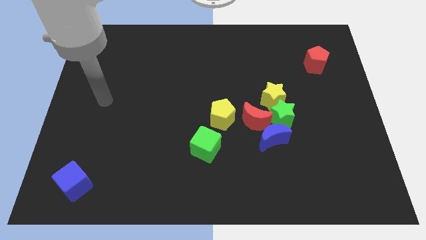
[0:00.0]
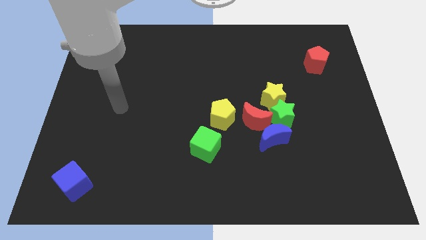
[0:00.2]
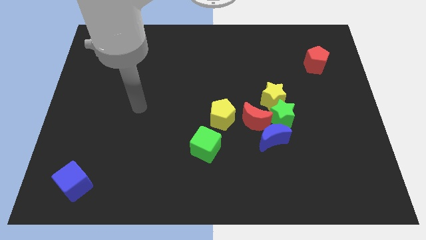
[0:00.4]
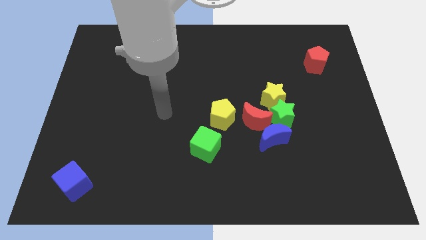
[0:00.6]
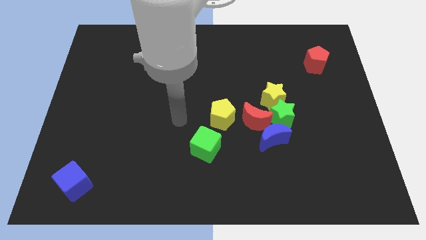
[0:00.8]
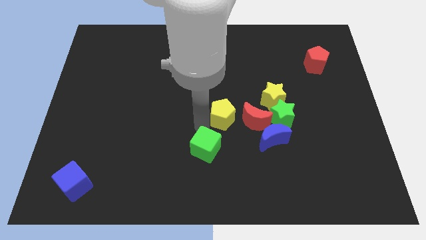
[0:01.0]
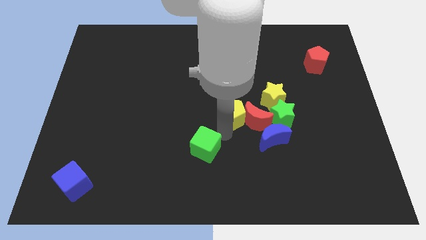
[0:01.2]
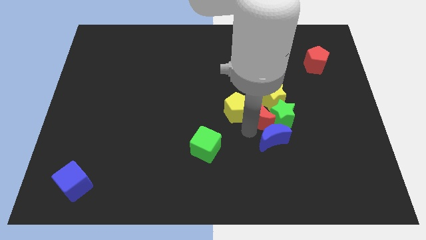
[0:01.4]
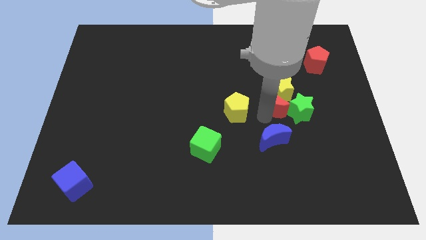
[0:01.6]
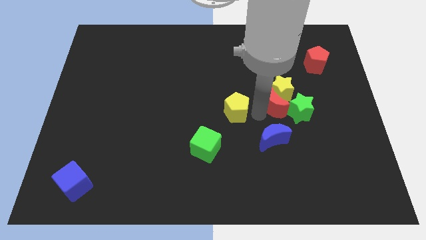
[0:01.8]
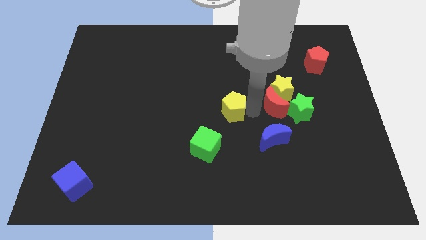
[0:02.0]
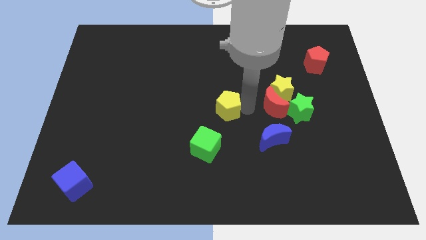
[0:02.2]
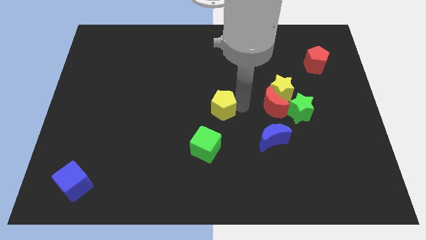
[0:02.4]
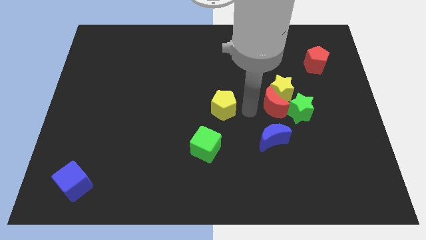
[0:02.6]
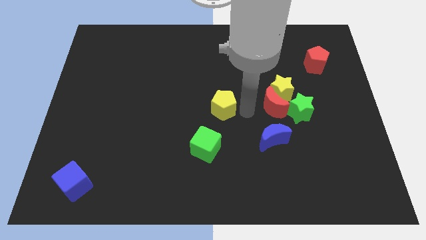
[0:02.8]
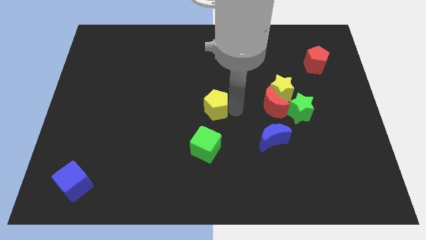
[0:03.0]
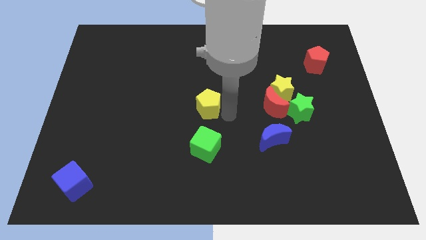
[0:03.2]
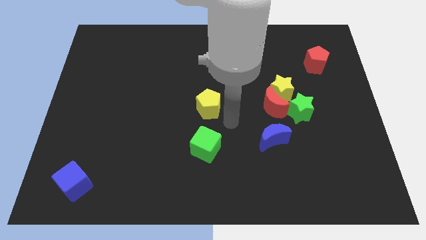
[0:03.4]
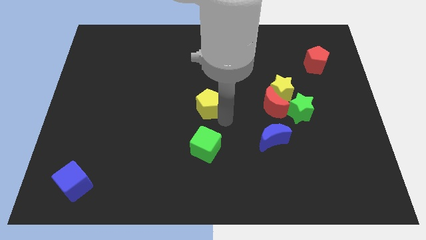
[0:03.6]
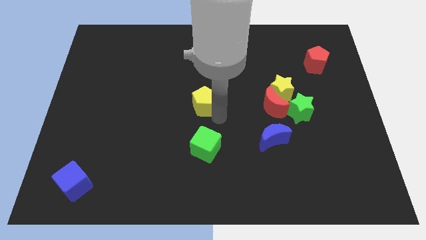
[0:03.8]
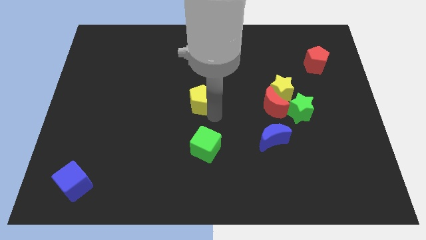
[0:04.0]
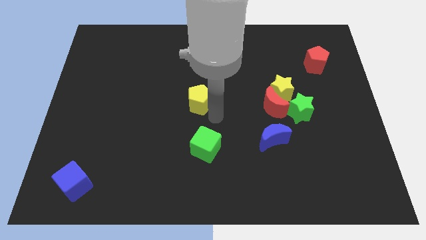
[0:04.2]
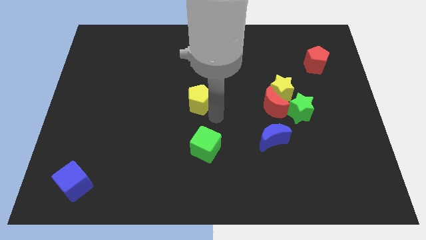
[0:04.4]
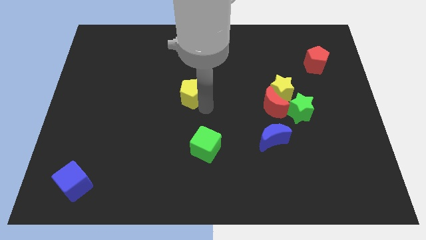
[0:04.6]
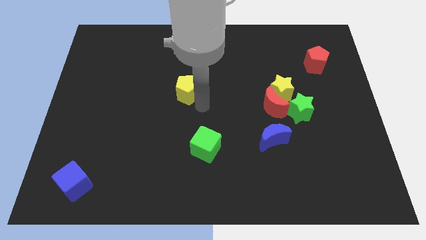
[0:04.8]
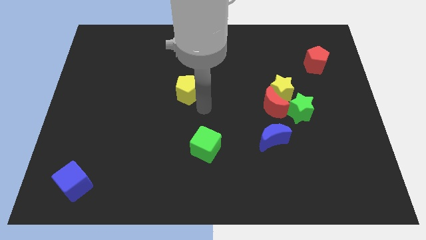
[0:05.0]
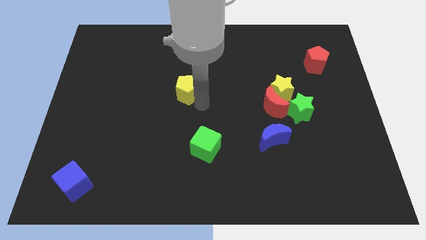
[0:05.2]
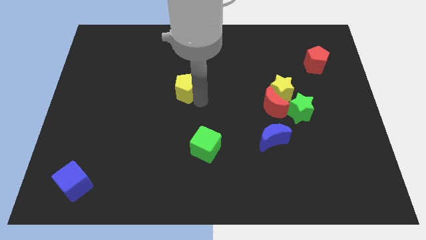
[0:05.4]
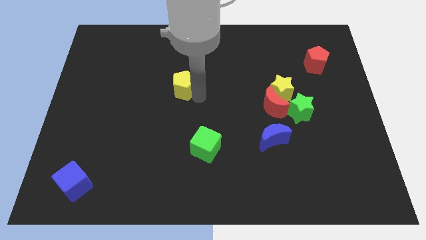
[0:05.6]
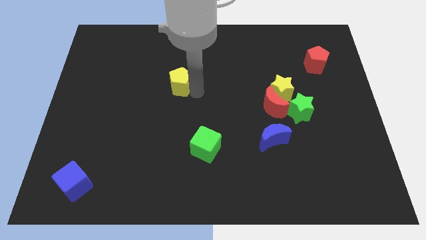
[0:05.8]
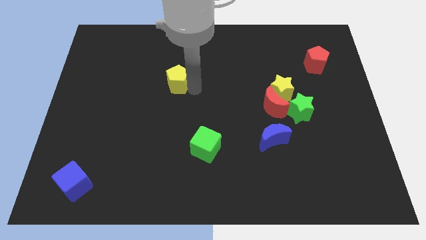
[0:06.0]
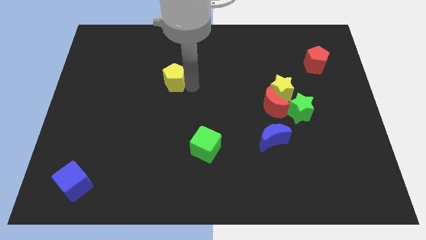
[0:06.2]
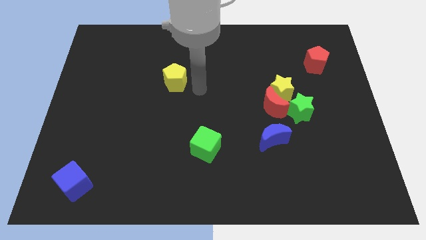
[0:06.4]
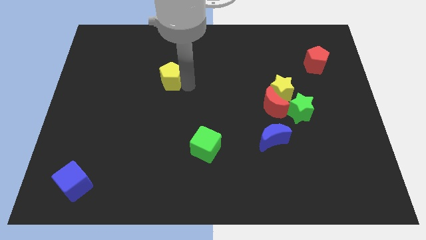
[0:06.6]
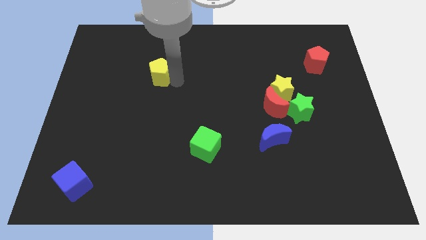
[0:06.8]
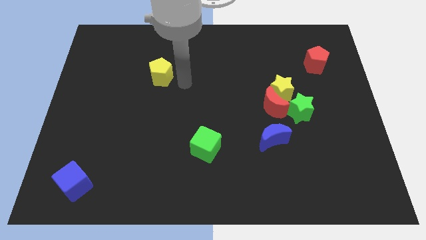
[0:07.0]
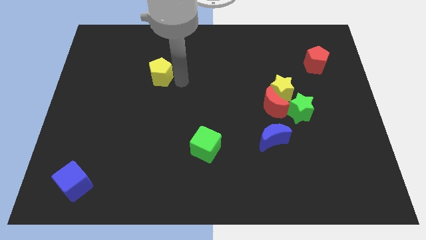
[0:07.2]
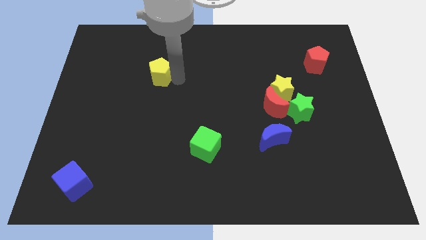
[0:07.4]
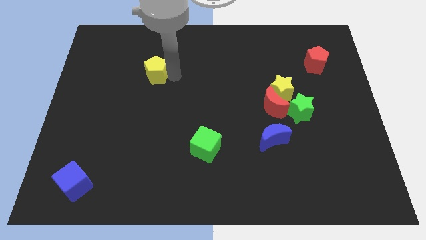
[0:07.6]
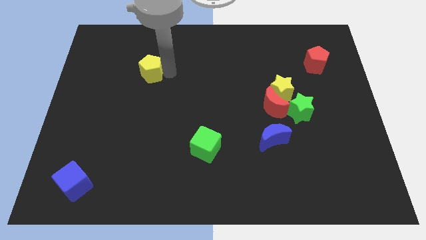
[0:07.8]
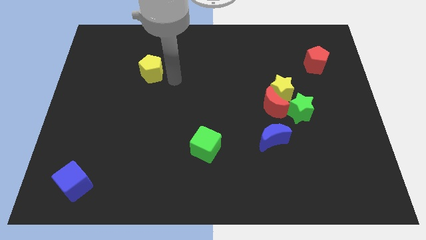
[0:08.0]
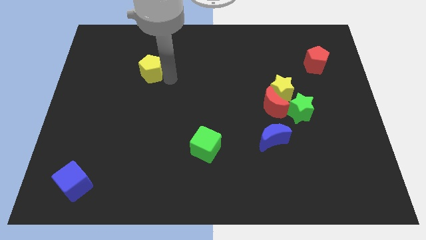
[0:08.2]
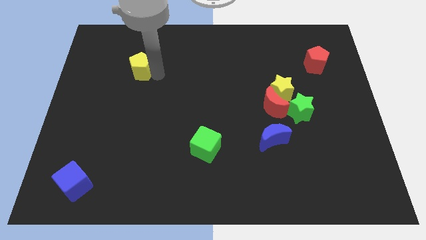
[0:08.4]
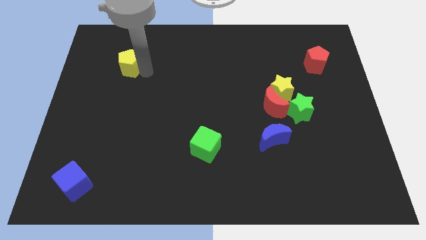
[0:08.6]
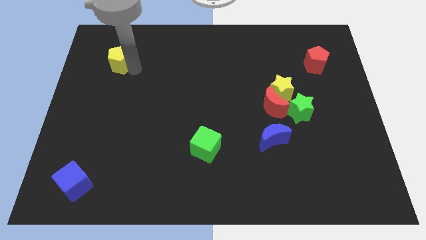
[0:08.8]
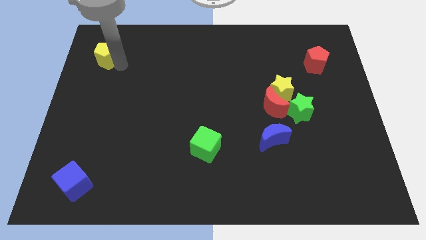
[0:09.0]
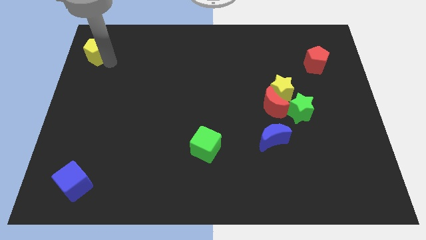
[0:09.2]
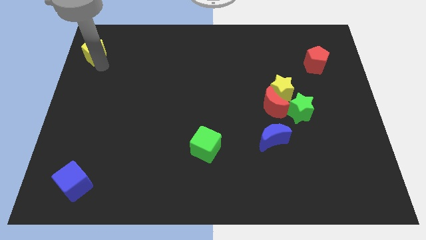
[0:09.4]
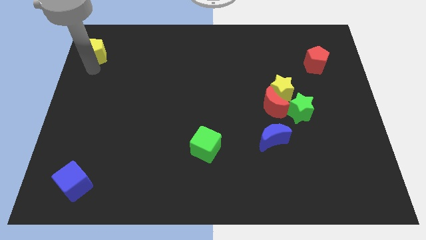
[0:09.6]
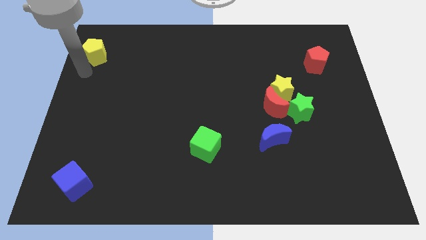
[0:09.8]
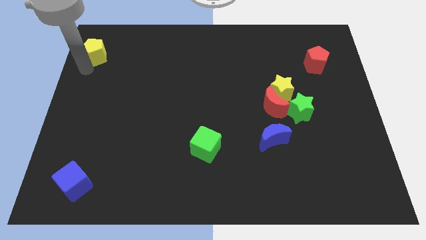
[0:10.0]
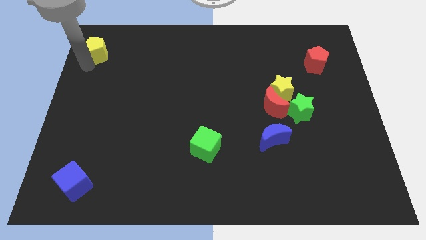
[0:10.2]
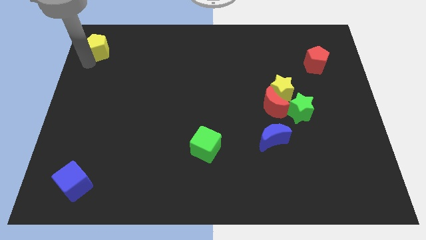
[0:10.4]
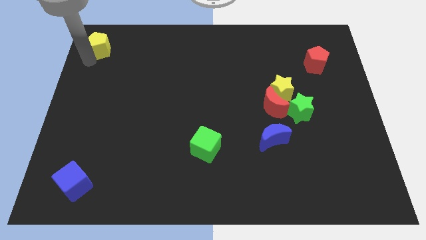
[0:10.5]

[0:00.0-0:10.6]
slide the yellow pentagon to the top left of the board

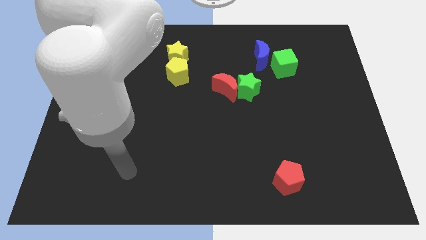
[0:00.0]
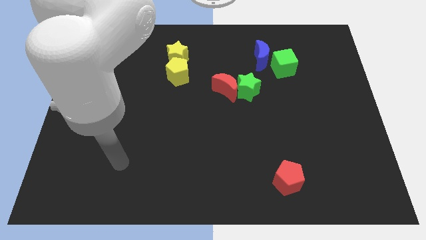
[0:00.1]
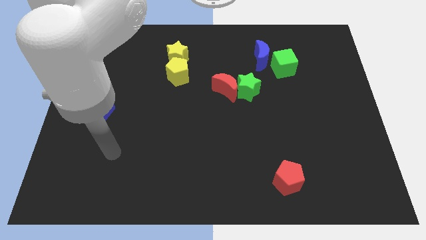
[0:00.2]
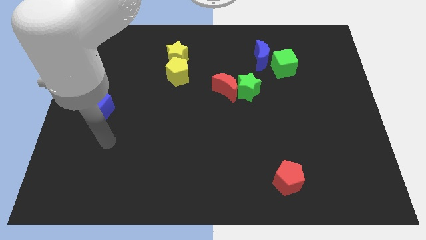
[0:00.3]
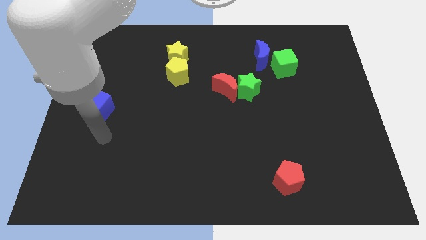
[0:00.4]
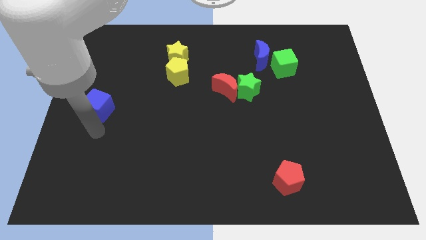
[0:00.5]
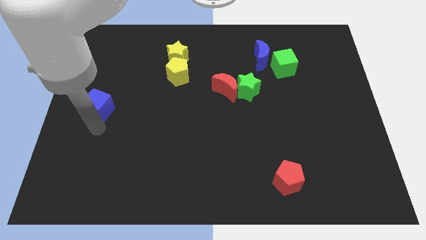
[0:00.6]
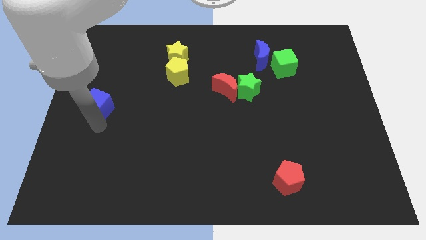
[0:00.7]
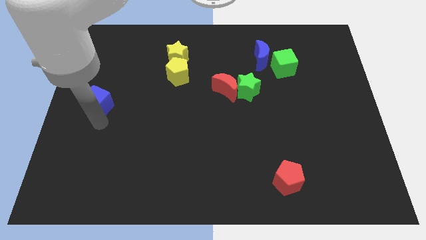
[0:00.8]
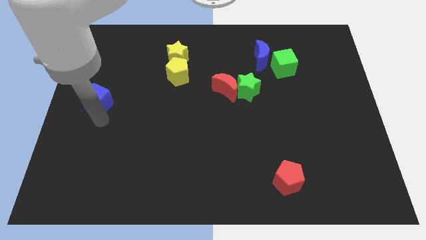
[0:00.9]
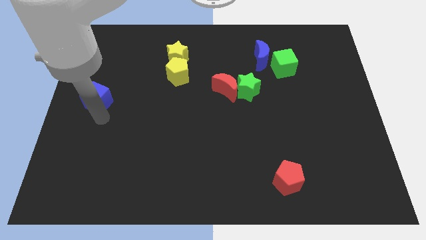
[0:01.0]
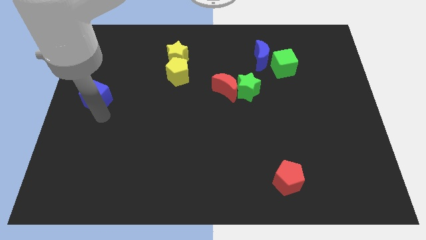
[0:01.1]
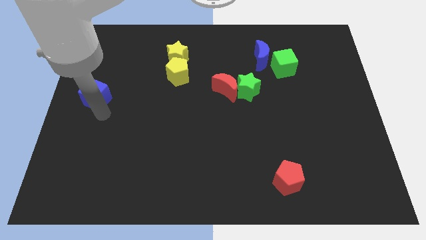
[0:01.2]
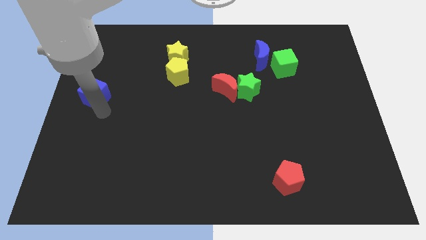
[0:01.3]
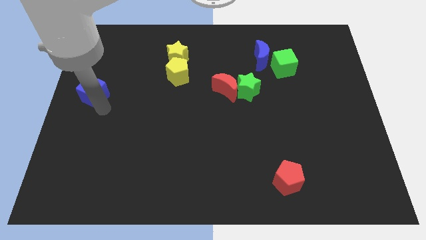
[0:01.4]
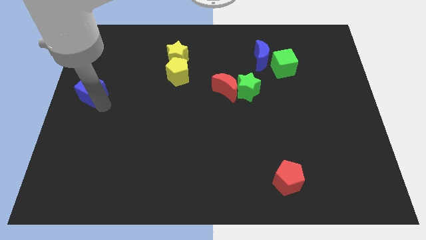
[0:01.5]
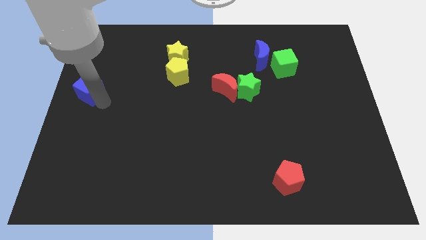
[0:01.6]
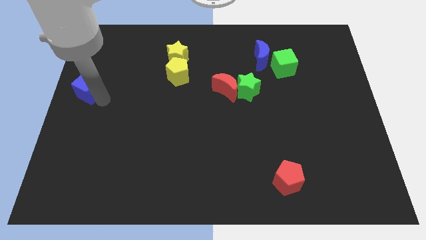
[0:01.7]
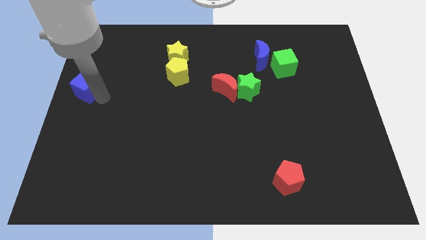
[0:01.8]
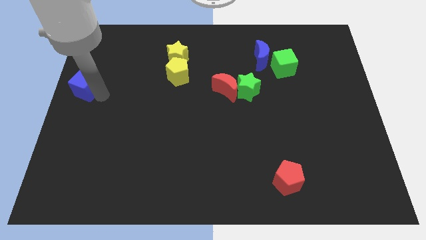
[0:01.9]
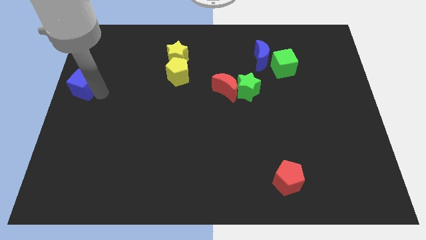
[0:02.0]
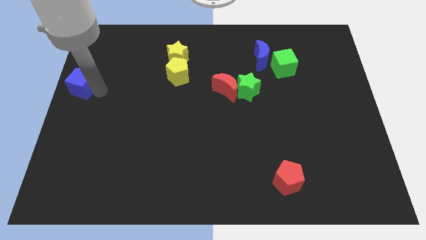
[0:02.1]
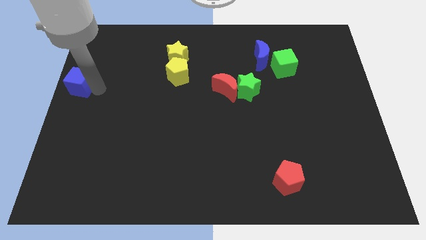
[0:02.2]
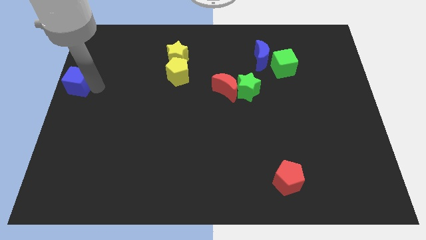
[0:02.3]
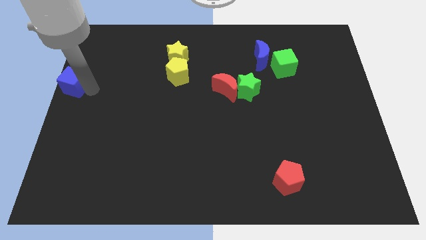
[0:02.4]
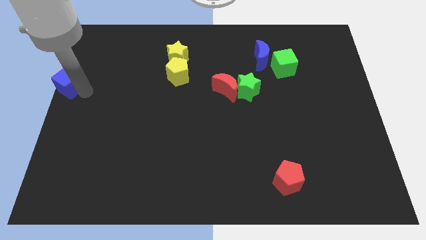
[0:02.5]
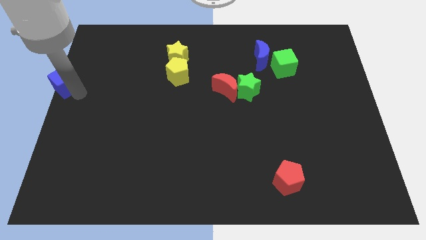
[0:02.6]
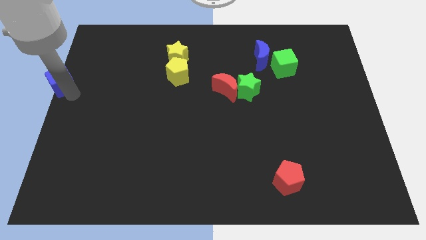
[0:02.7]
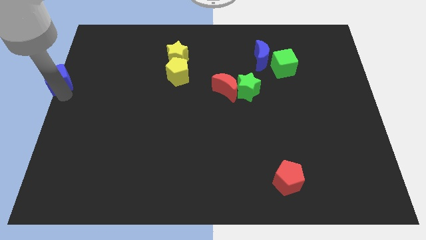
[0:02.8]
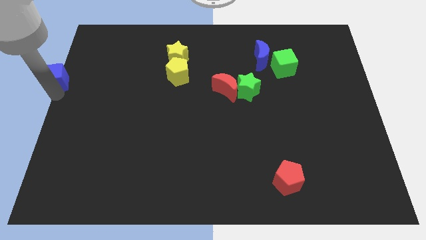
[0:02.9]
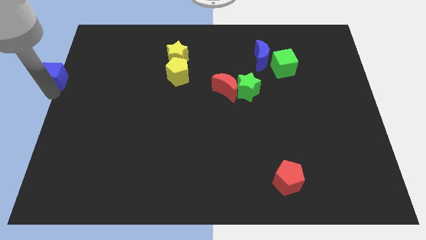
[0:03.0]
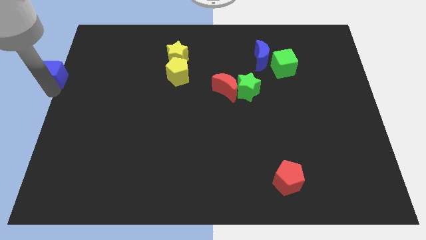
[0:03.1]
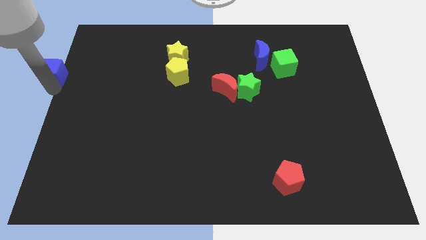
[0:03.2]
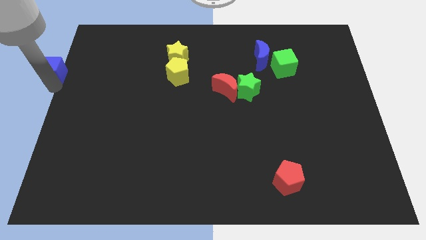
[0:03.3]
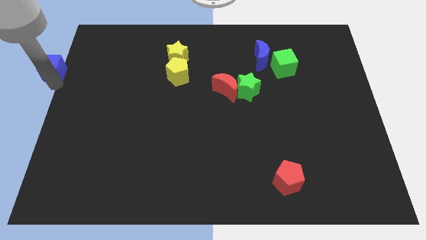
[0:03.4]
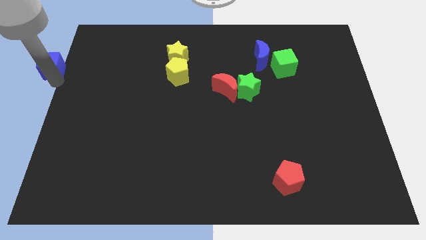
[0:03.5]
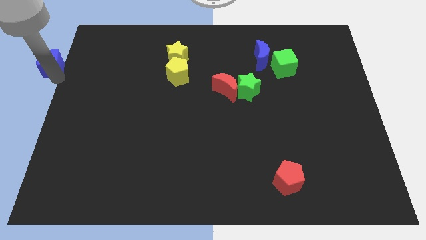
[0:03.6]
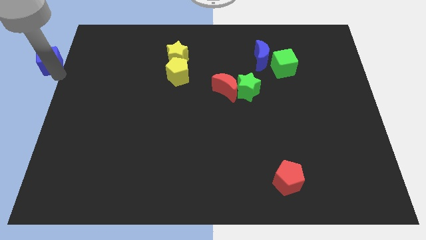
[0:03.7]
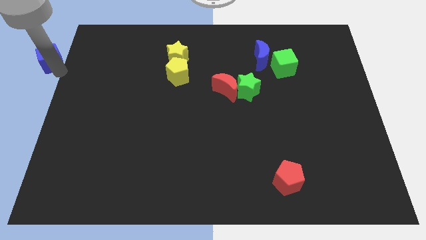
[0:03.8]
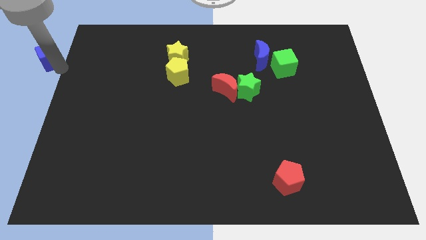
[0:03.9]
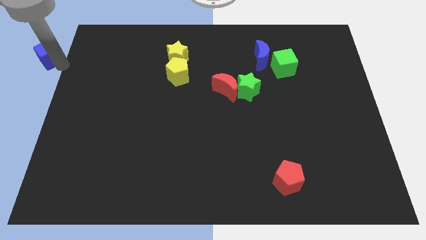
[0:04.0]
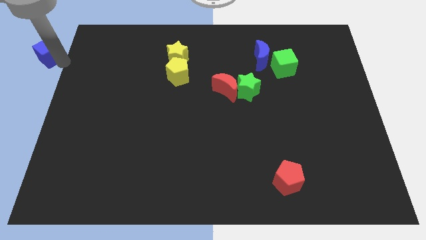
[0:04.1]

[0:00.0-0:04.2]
move the blue cube to the top left corner
